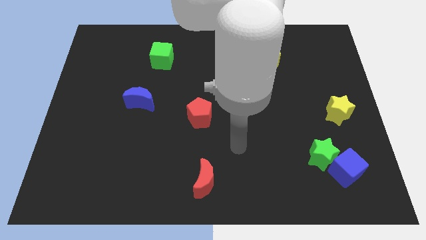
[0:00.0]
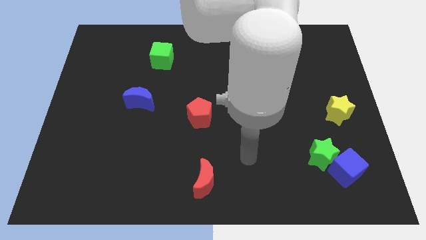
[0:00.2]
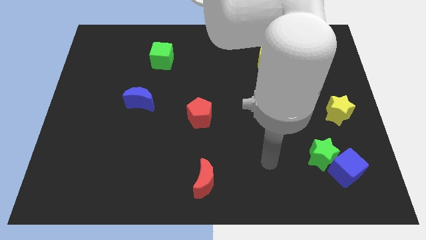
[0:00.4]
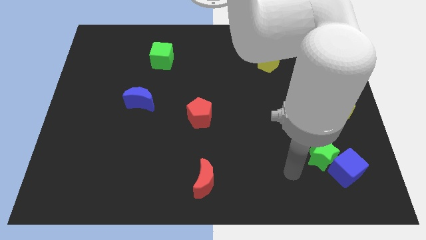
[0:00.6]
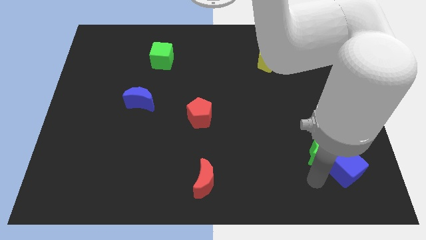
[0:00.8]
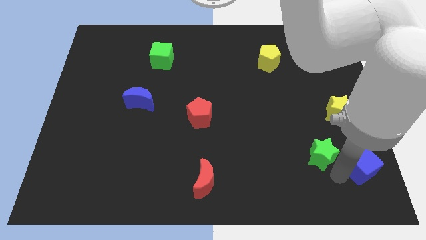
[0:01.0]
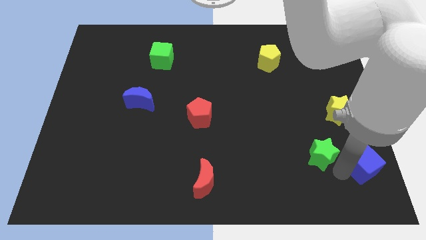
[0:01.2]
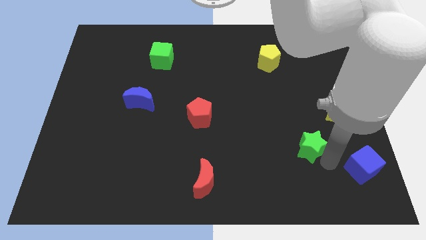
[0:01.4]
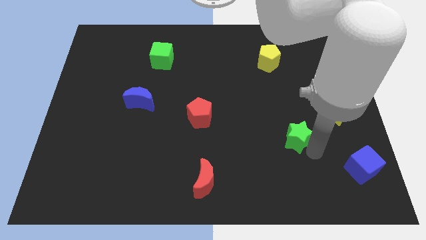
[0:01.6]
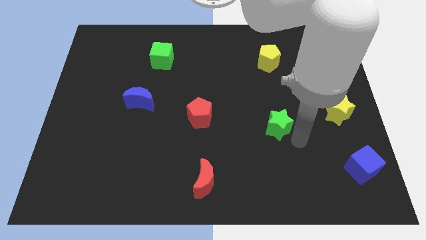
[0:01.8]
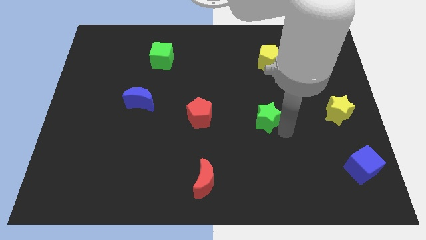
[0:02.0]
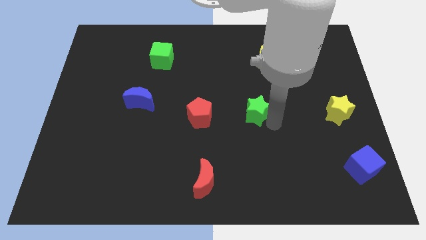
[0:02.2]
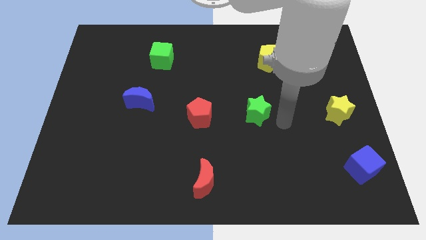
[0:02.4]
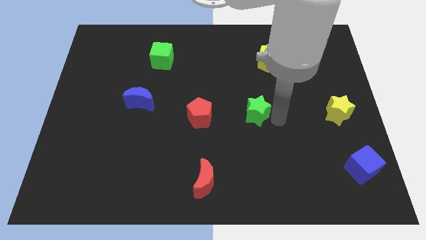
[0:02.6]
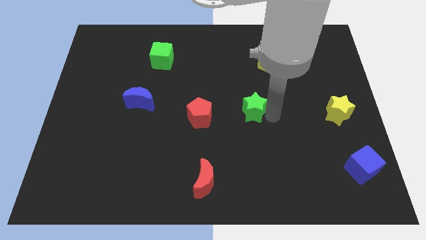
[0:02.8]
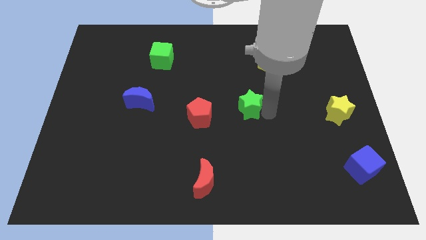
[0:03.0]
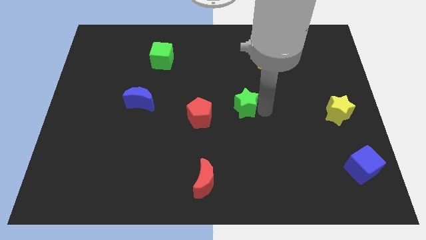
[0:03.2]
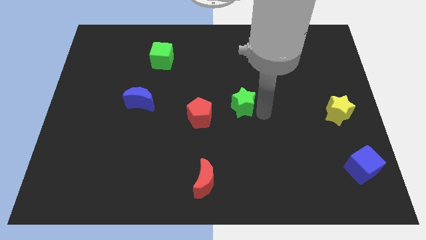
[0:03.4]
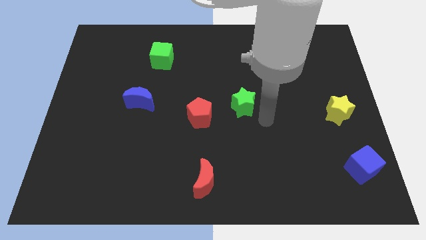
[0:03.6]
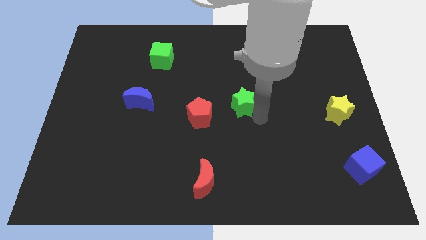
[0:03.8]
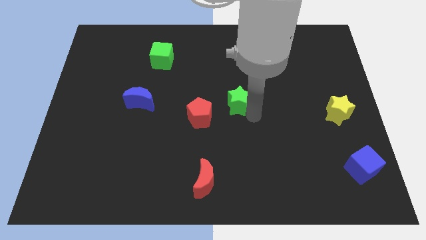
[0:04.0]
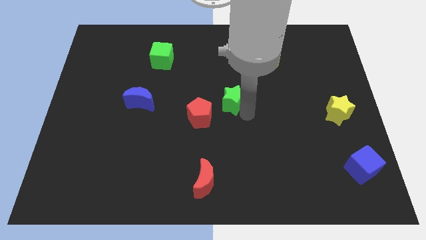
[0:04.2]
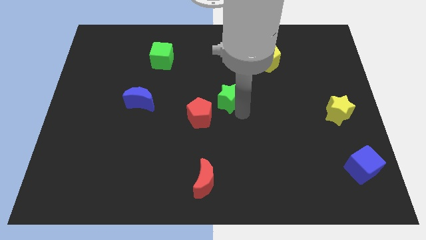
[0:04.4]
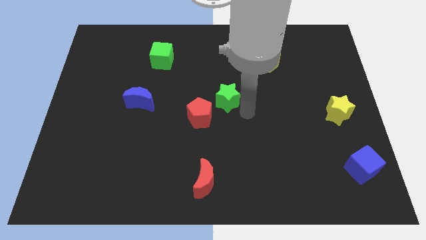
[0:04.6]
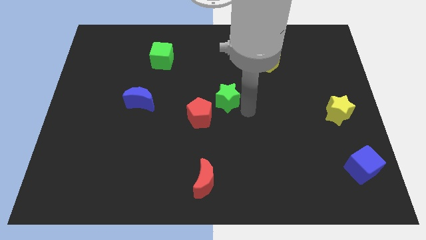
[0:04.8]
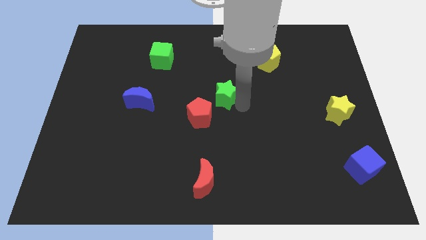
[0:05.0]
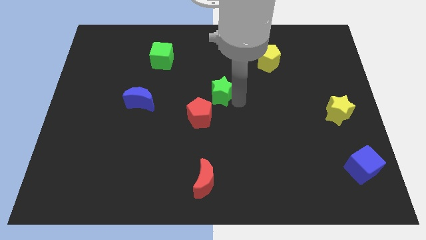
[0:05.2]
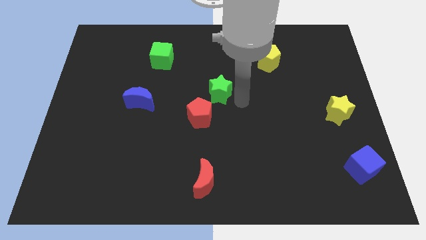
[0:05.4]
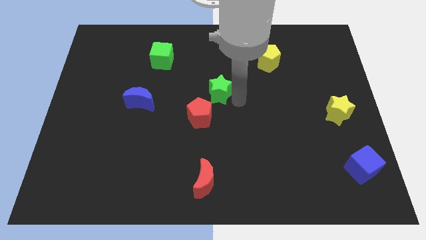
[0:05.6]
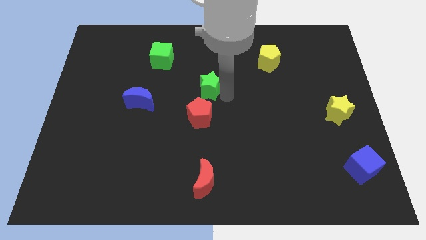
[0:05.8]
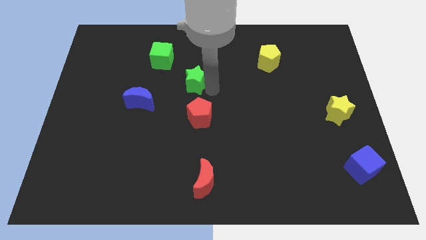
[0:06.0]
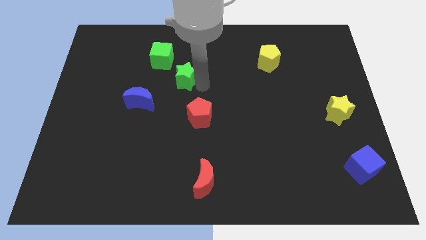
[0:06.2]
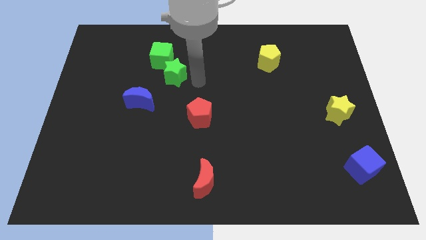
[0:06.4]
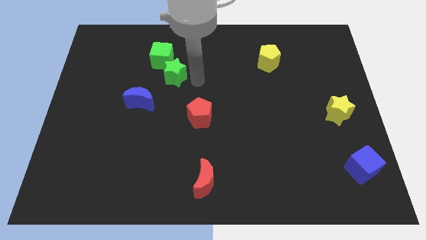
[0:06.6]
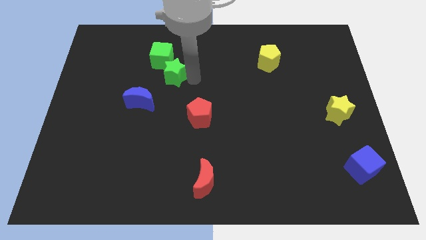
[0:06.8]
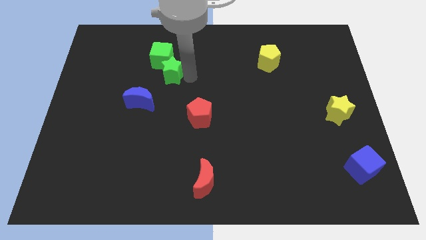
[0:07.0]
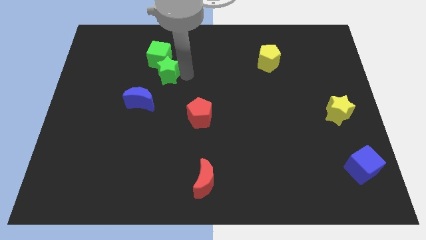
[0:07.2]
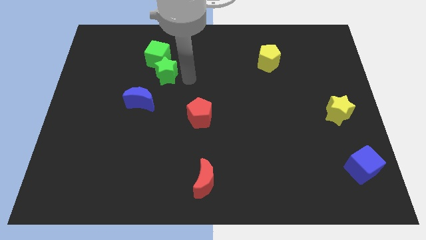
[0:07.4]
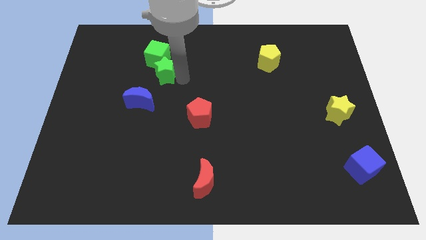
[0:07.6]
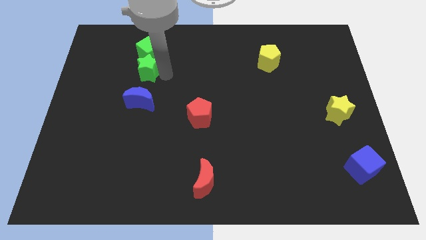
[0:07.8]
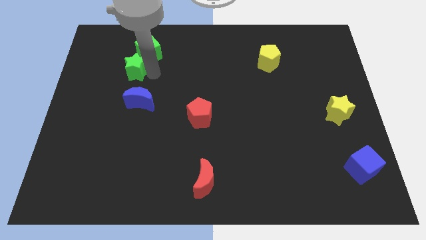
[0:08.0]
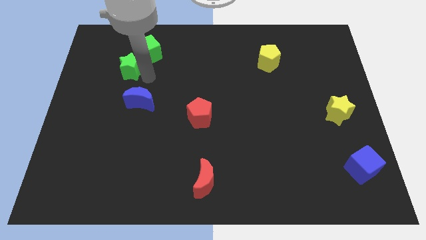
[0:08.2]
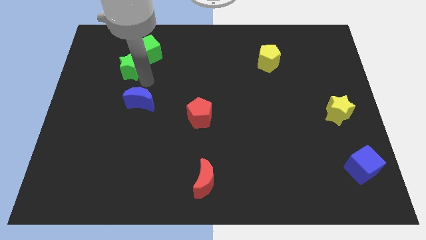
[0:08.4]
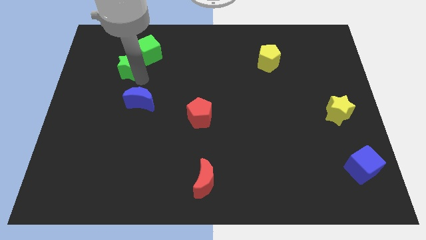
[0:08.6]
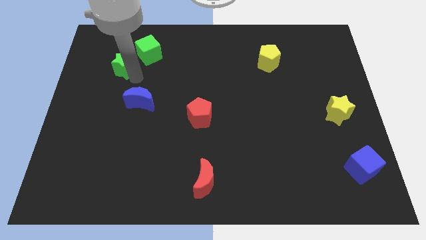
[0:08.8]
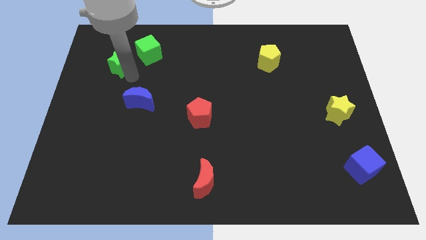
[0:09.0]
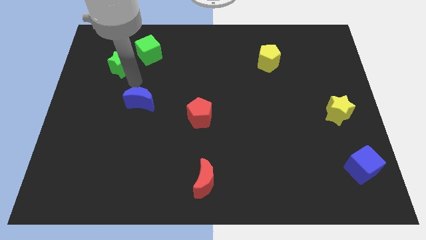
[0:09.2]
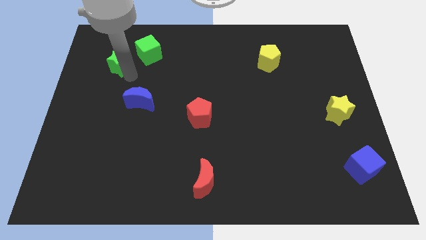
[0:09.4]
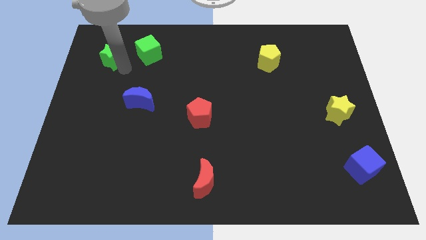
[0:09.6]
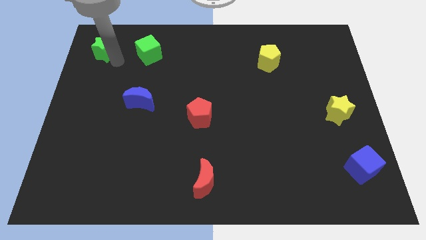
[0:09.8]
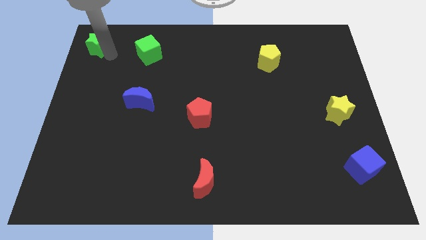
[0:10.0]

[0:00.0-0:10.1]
put the green star to the top left
